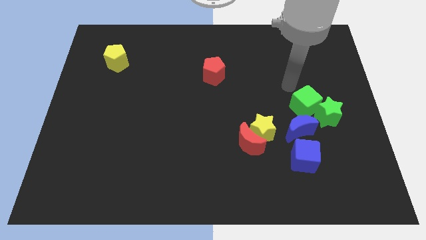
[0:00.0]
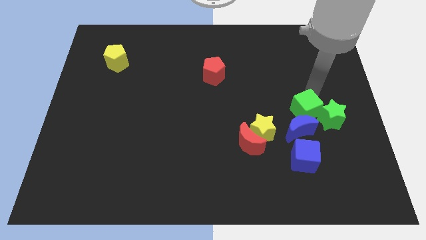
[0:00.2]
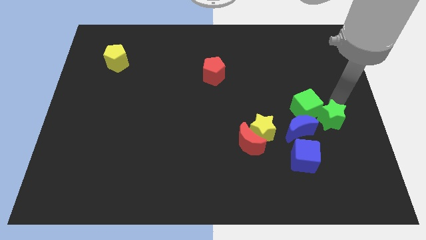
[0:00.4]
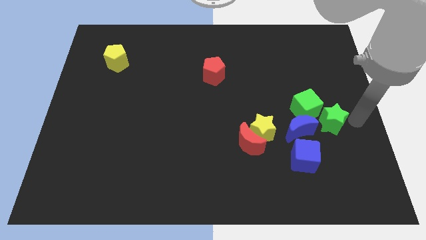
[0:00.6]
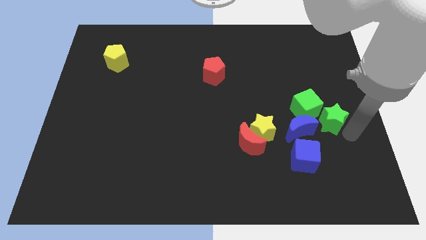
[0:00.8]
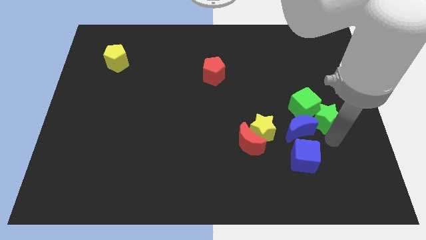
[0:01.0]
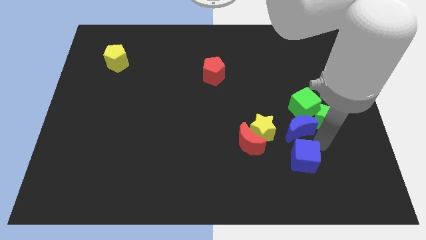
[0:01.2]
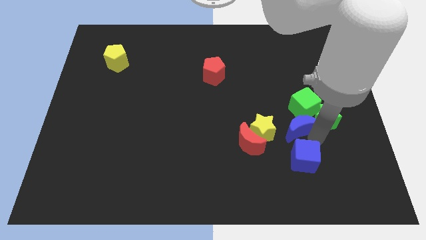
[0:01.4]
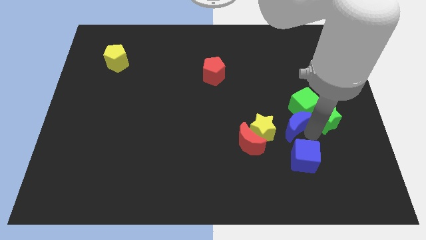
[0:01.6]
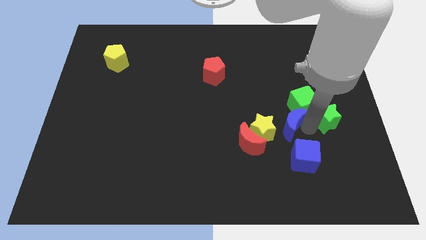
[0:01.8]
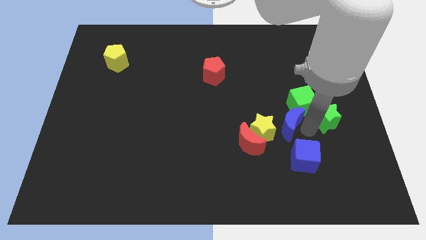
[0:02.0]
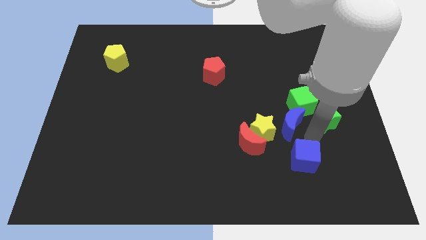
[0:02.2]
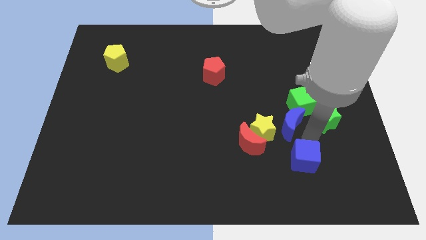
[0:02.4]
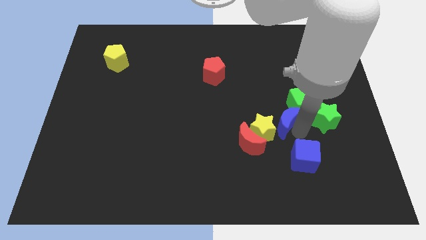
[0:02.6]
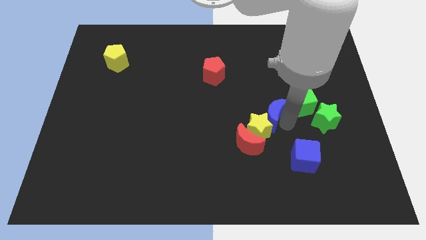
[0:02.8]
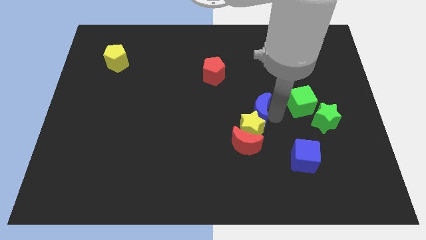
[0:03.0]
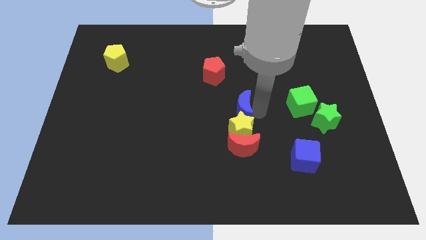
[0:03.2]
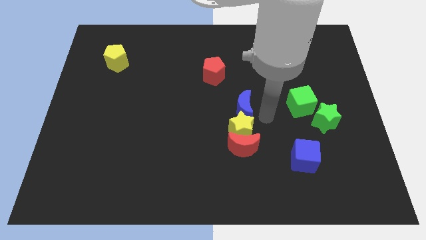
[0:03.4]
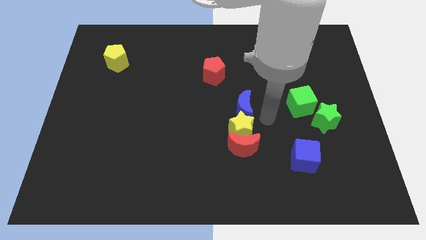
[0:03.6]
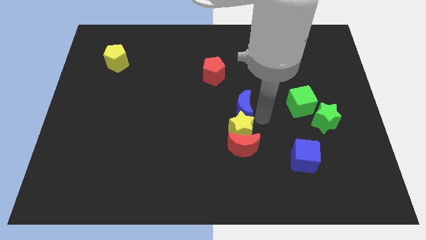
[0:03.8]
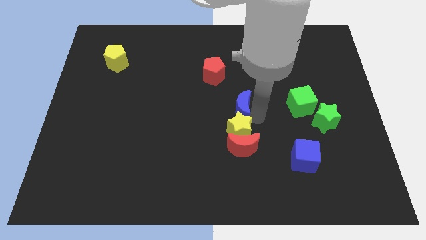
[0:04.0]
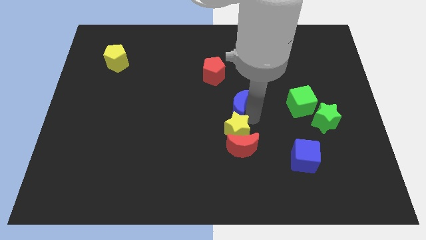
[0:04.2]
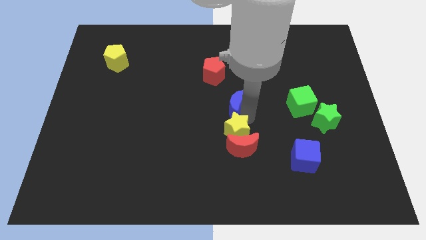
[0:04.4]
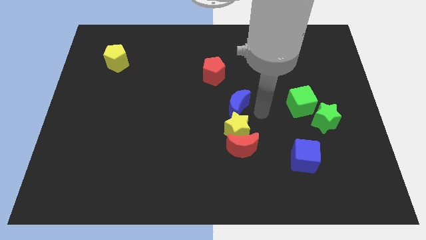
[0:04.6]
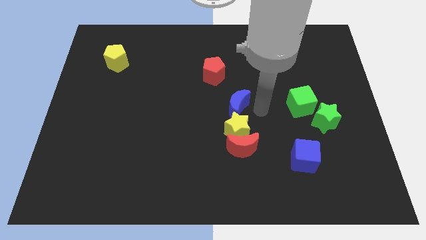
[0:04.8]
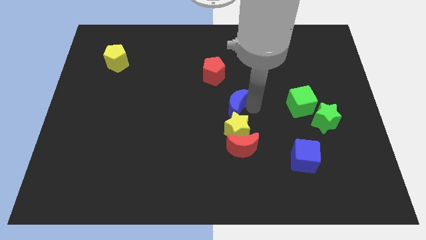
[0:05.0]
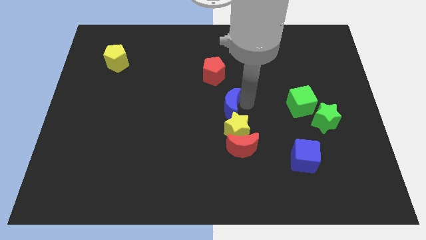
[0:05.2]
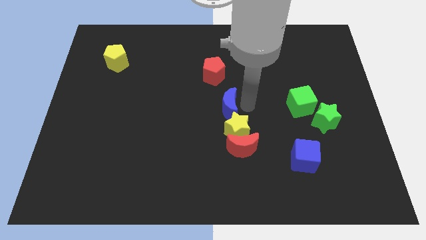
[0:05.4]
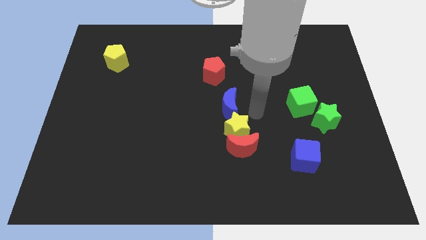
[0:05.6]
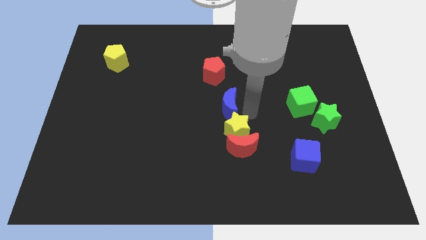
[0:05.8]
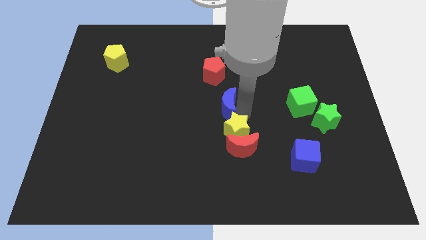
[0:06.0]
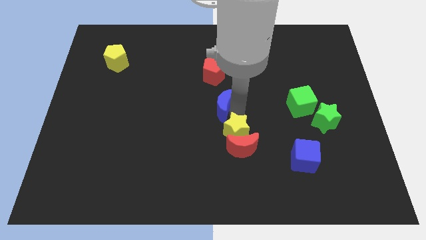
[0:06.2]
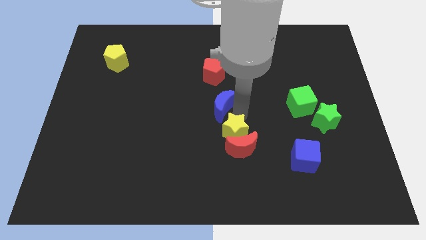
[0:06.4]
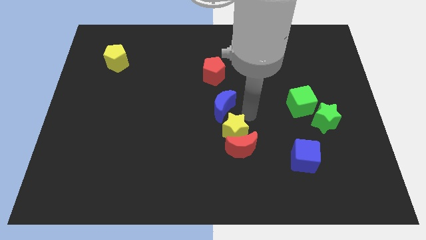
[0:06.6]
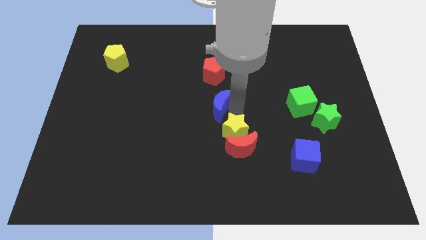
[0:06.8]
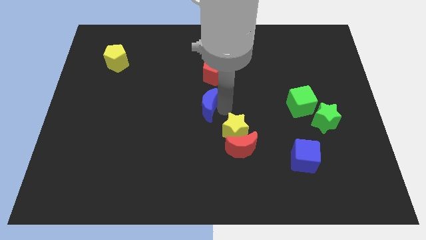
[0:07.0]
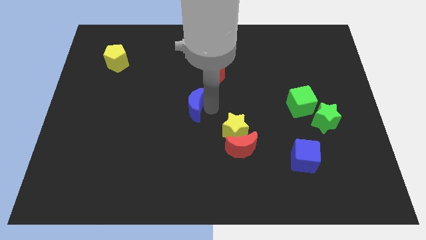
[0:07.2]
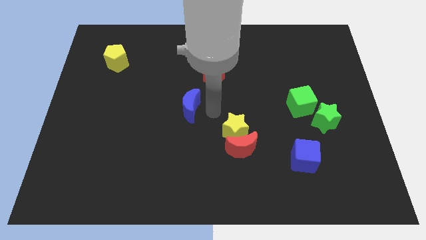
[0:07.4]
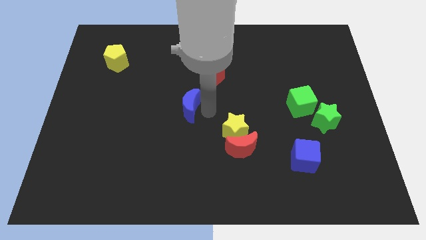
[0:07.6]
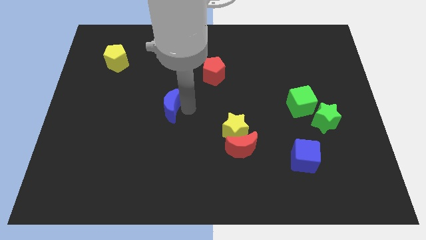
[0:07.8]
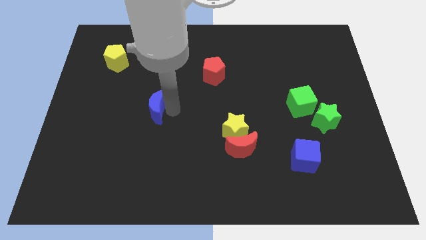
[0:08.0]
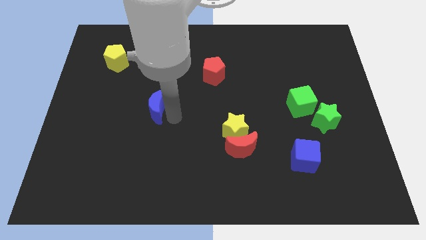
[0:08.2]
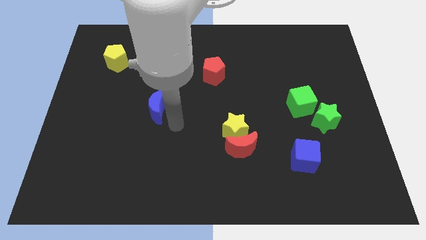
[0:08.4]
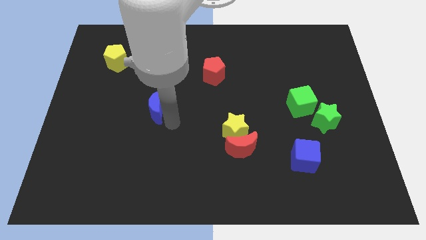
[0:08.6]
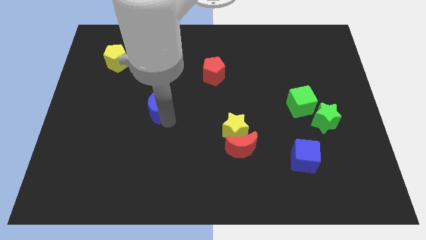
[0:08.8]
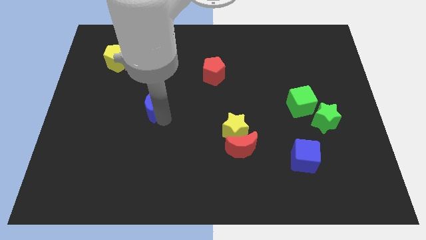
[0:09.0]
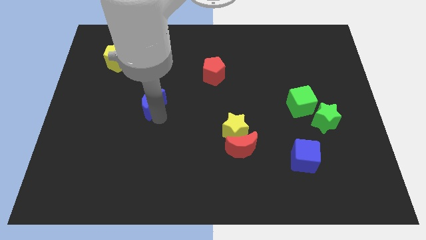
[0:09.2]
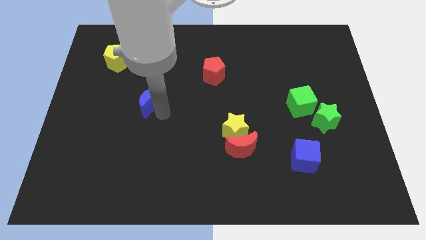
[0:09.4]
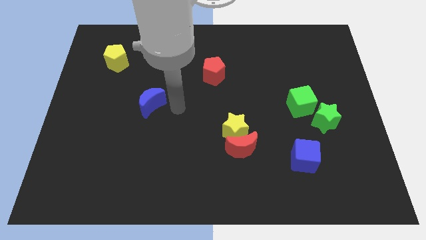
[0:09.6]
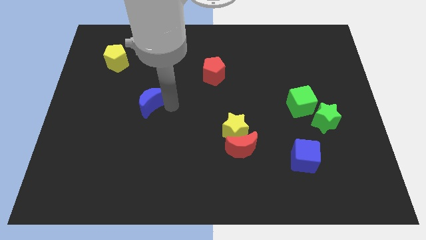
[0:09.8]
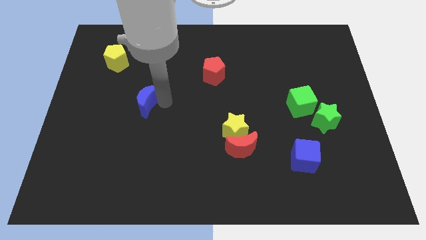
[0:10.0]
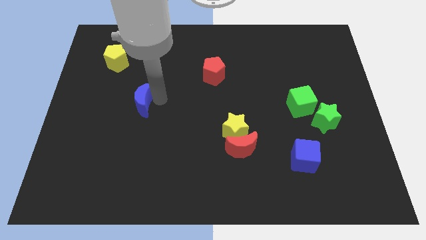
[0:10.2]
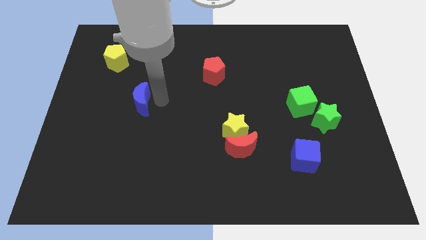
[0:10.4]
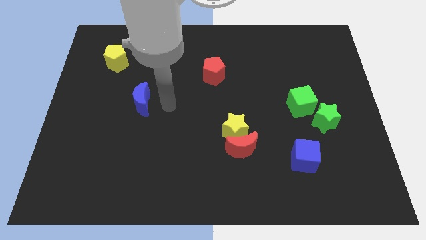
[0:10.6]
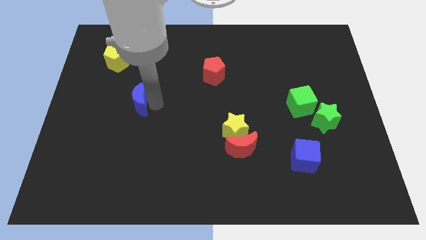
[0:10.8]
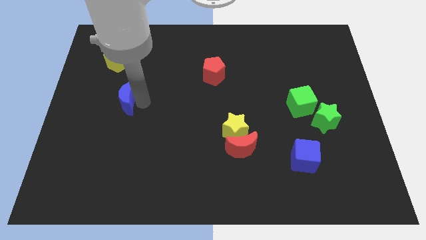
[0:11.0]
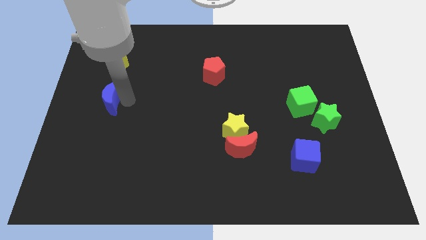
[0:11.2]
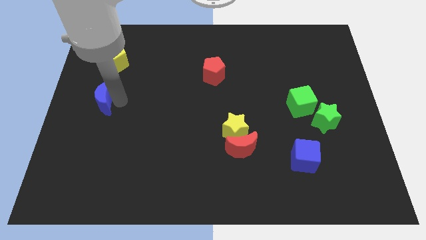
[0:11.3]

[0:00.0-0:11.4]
slide the blue moon to the center left

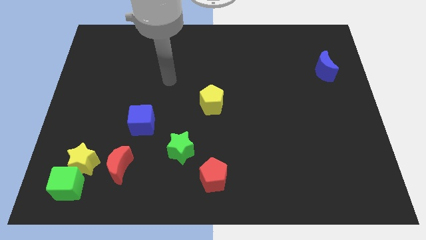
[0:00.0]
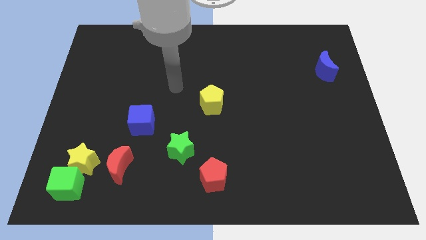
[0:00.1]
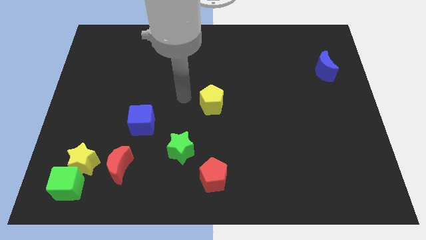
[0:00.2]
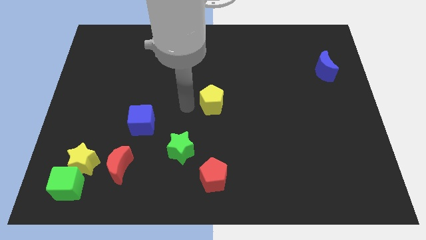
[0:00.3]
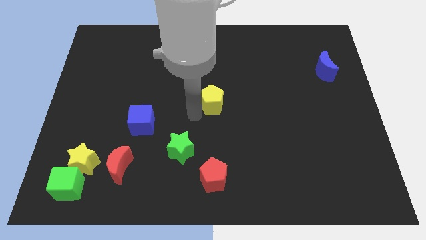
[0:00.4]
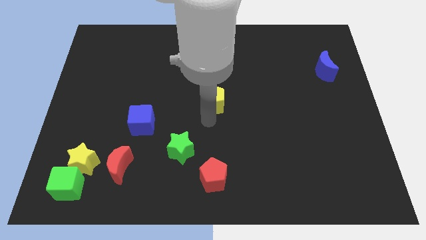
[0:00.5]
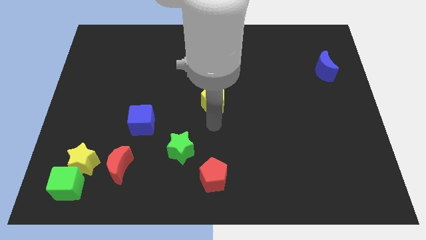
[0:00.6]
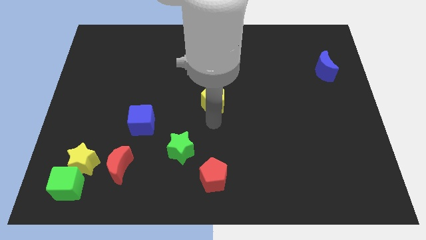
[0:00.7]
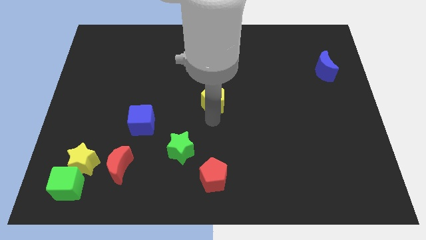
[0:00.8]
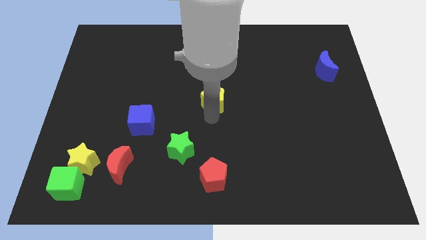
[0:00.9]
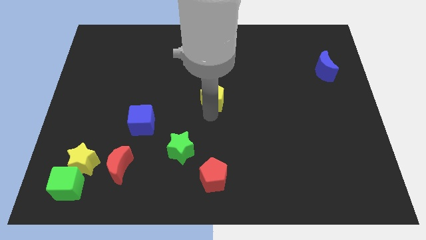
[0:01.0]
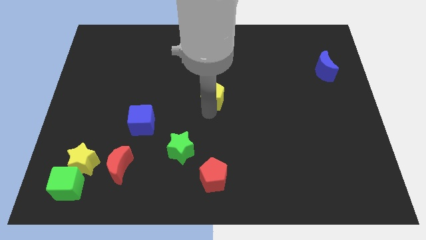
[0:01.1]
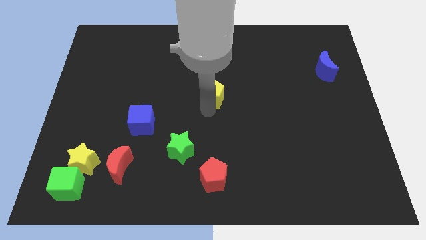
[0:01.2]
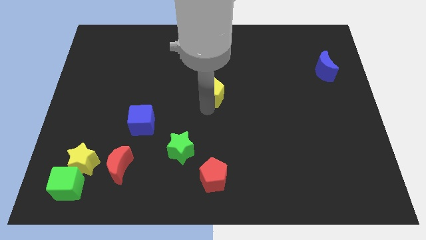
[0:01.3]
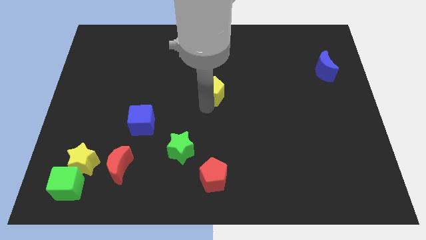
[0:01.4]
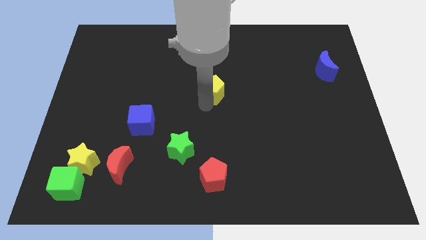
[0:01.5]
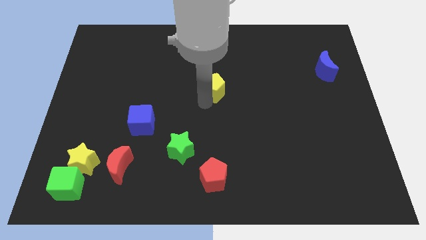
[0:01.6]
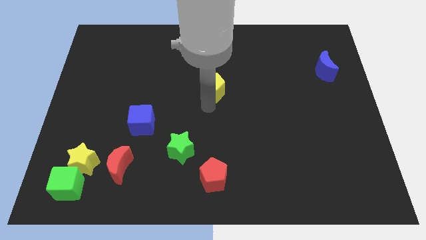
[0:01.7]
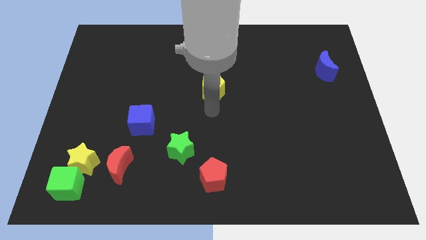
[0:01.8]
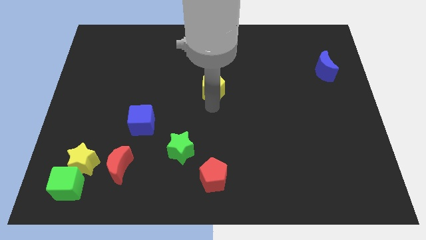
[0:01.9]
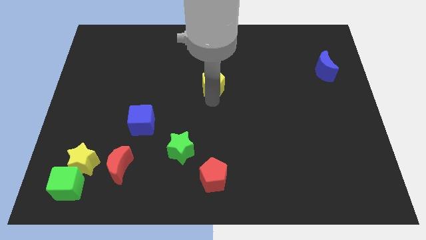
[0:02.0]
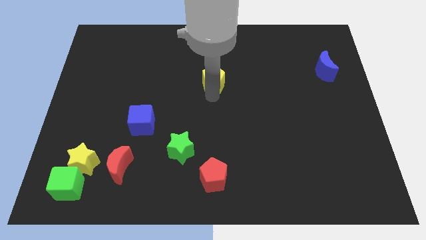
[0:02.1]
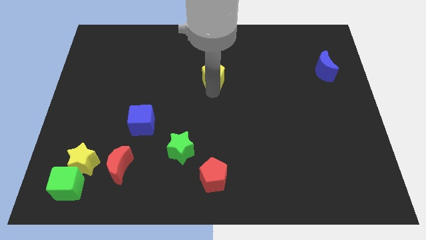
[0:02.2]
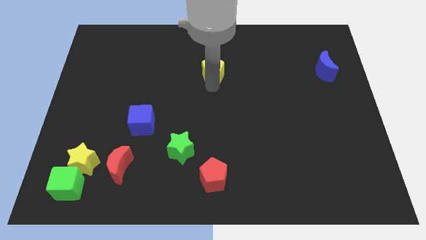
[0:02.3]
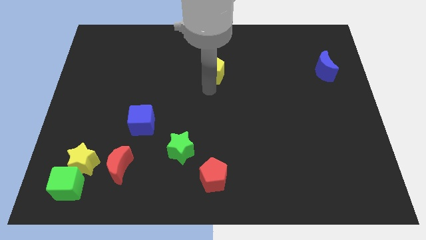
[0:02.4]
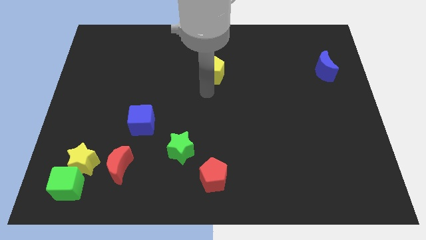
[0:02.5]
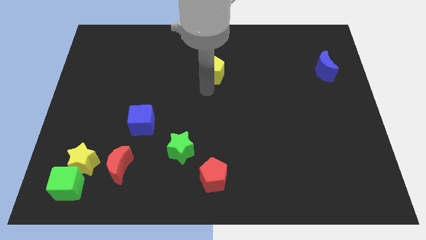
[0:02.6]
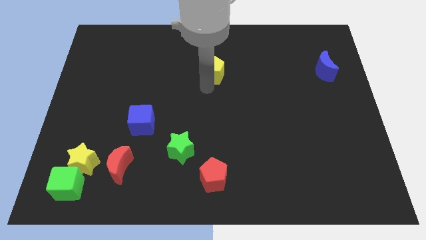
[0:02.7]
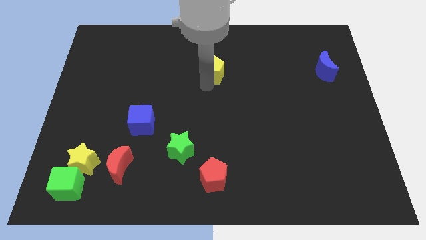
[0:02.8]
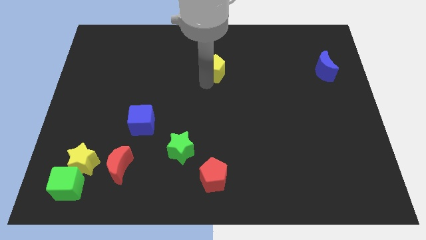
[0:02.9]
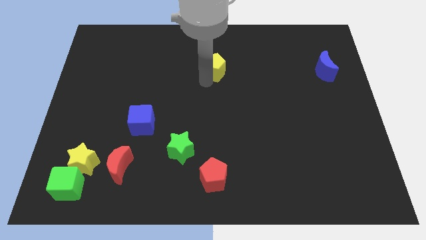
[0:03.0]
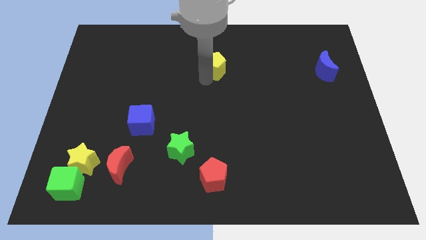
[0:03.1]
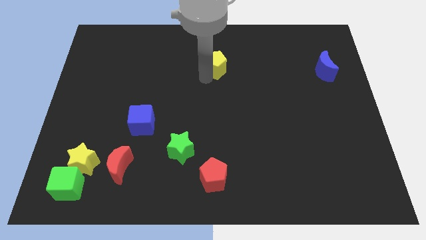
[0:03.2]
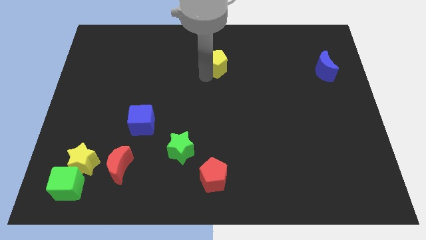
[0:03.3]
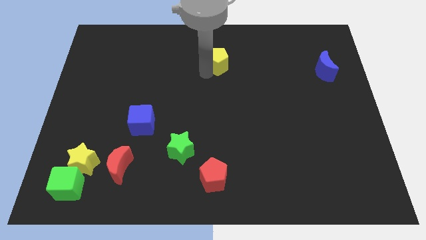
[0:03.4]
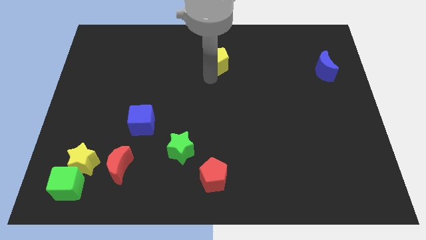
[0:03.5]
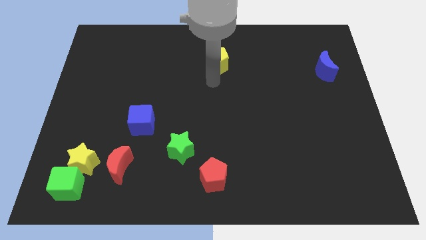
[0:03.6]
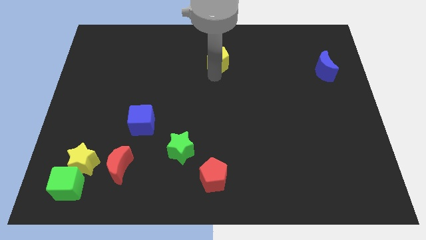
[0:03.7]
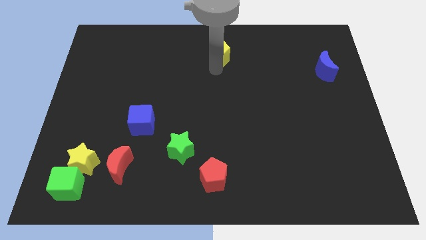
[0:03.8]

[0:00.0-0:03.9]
slide the yellow pentagon to the towards your base
